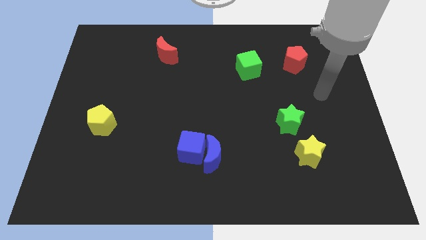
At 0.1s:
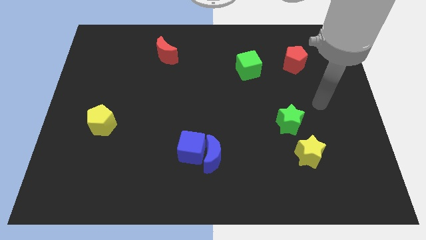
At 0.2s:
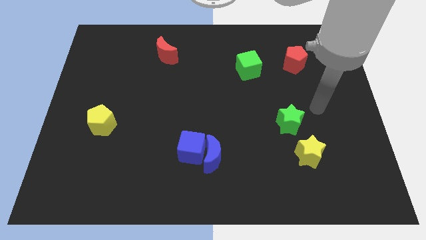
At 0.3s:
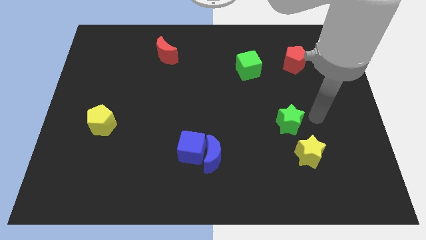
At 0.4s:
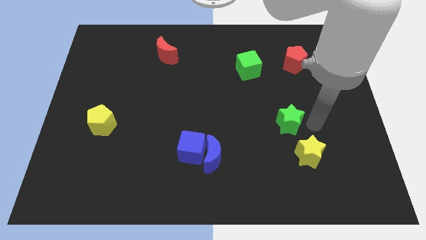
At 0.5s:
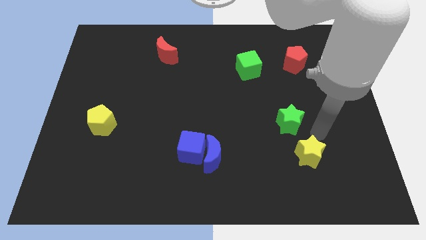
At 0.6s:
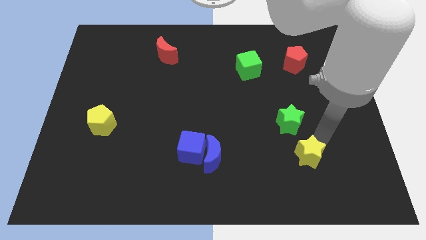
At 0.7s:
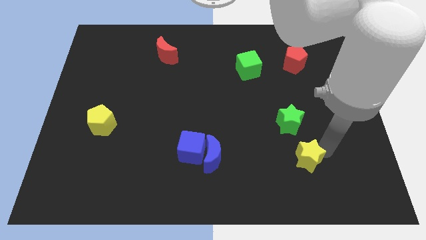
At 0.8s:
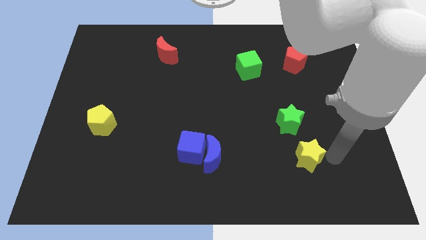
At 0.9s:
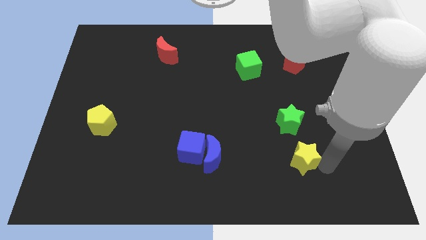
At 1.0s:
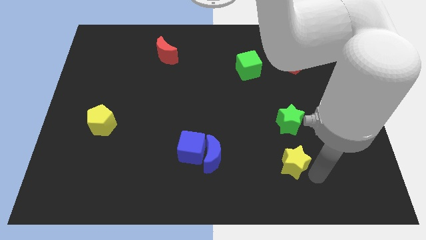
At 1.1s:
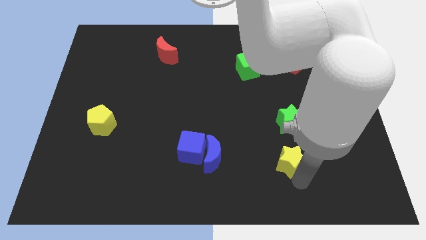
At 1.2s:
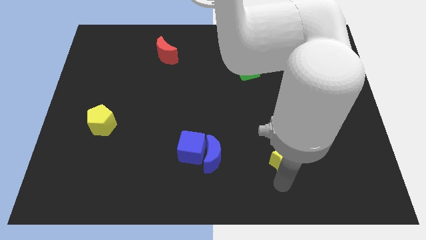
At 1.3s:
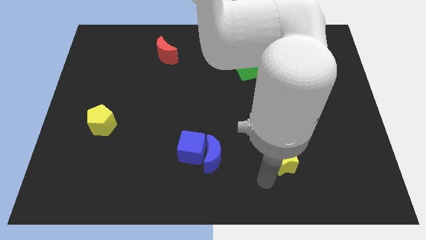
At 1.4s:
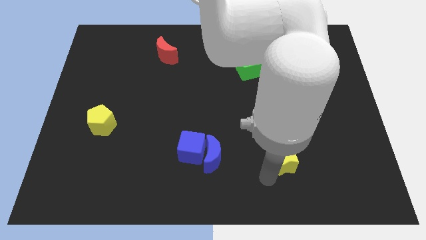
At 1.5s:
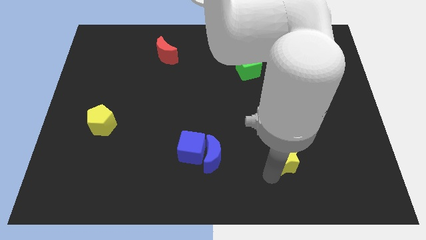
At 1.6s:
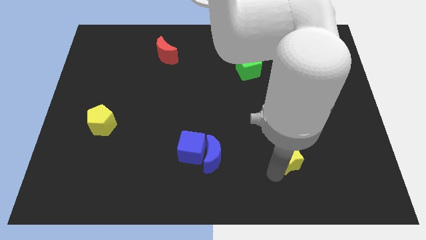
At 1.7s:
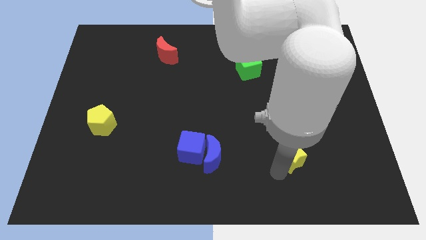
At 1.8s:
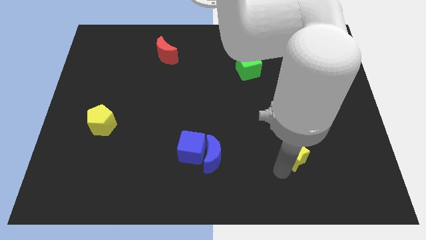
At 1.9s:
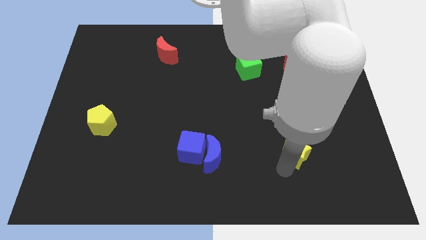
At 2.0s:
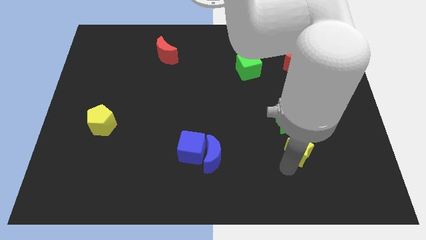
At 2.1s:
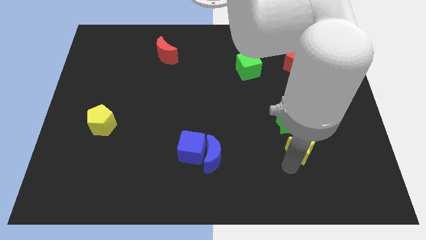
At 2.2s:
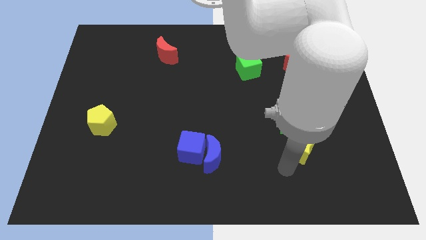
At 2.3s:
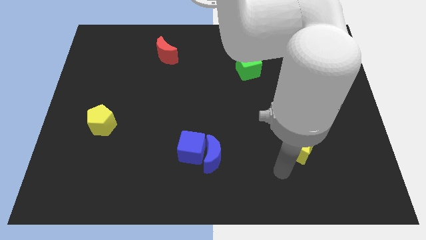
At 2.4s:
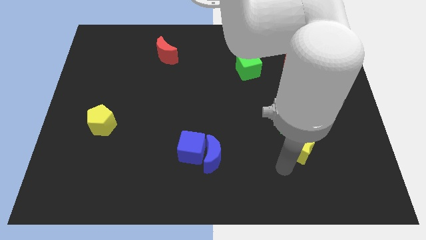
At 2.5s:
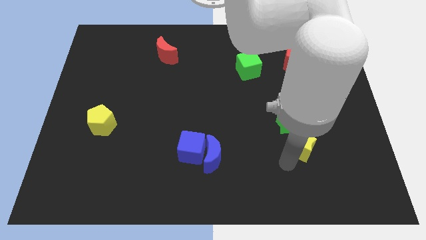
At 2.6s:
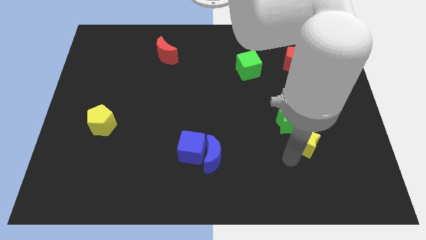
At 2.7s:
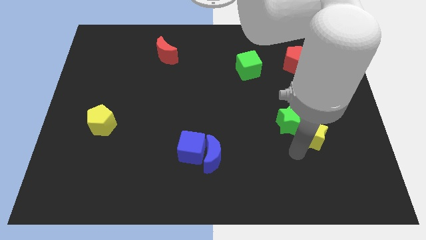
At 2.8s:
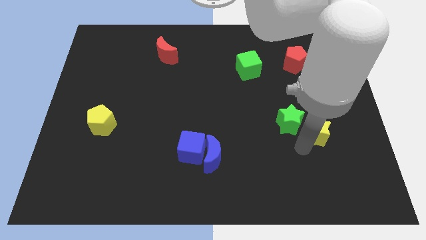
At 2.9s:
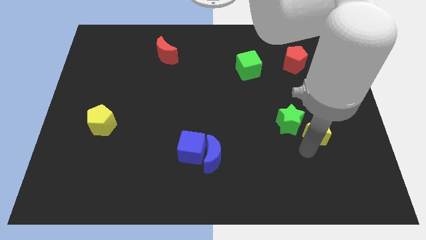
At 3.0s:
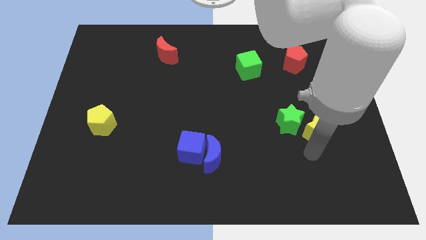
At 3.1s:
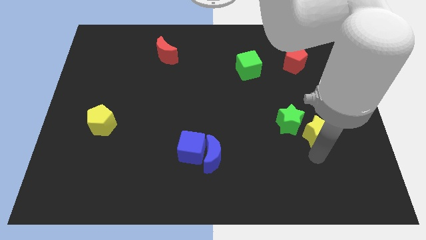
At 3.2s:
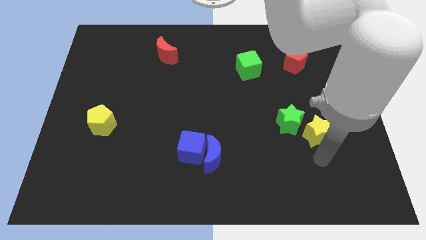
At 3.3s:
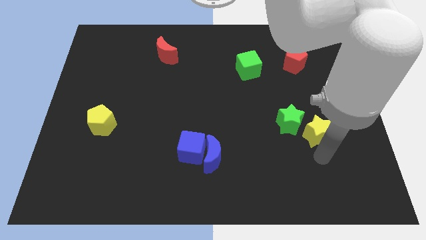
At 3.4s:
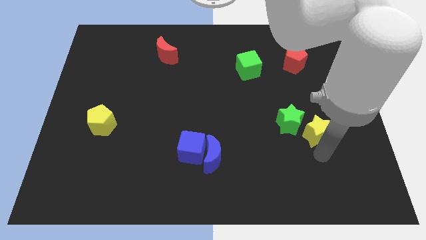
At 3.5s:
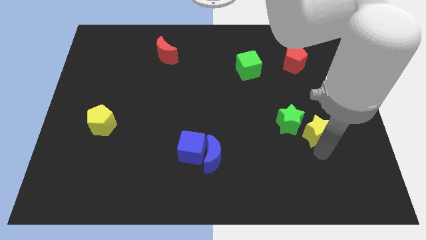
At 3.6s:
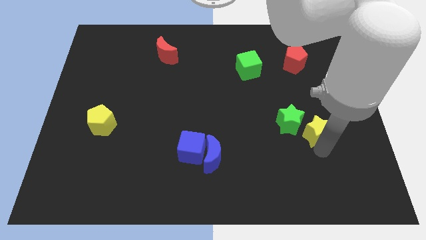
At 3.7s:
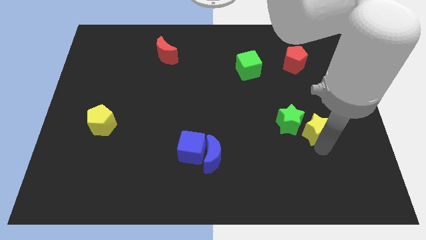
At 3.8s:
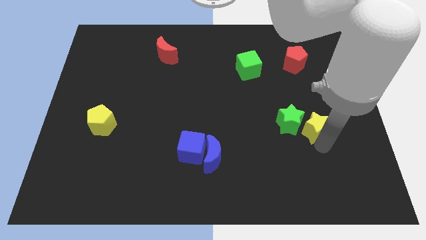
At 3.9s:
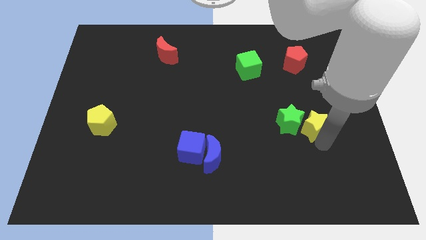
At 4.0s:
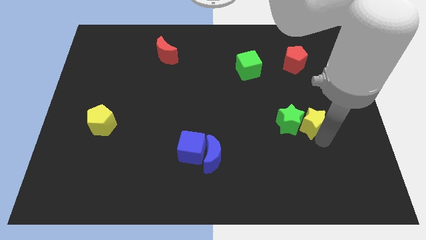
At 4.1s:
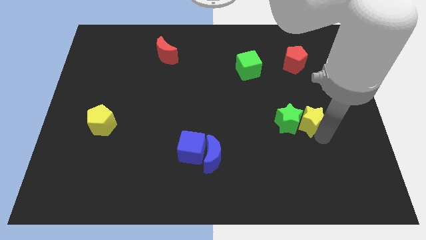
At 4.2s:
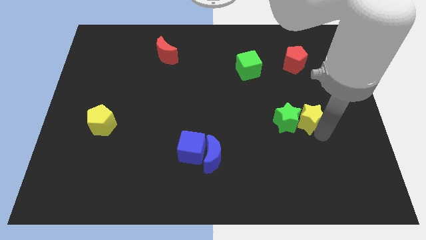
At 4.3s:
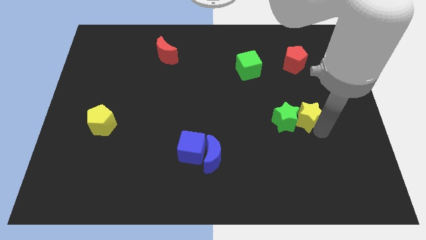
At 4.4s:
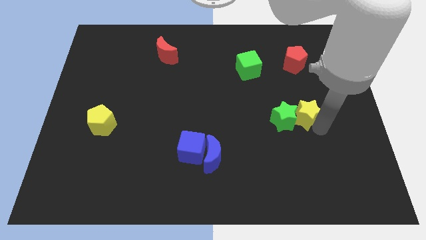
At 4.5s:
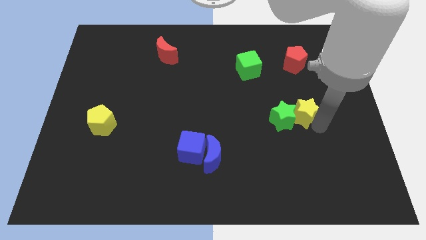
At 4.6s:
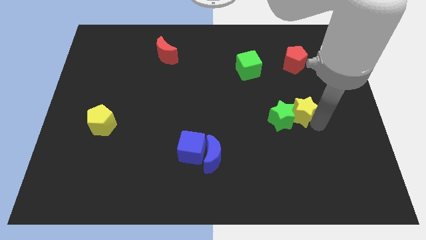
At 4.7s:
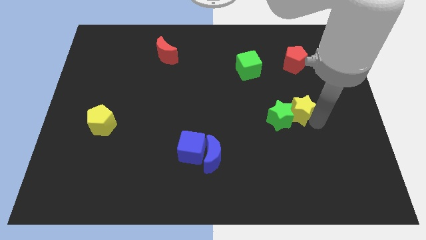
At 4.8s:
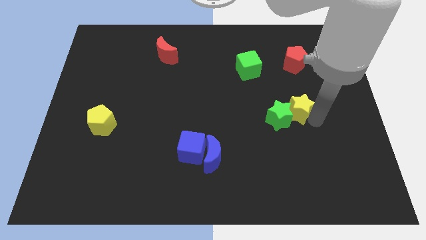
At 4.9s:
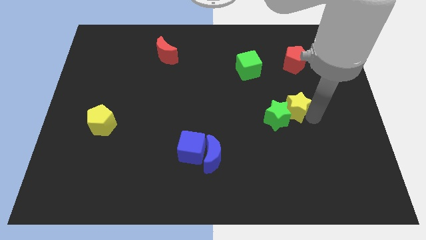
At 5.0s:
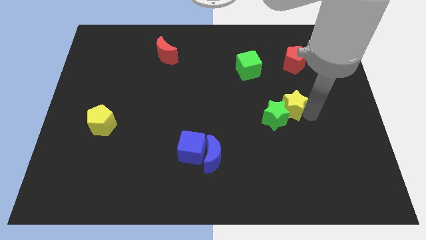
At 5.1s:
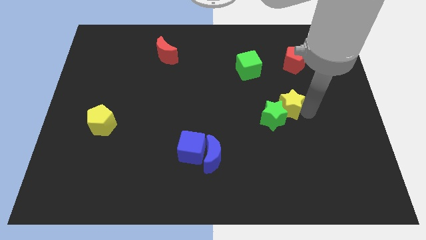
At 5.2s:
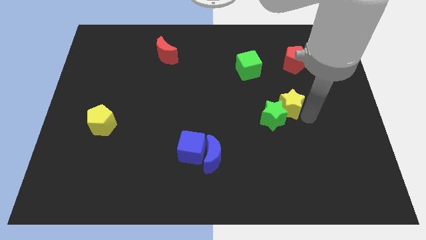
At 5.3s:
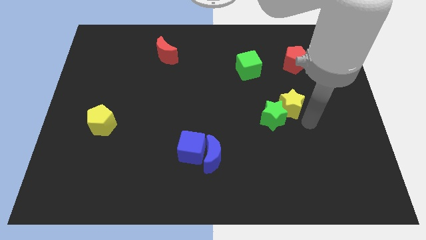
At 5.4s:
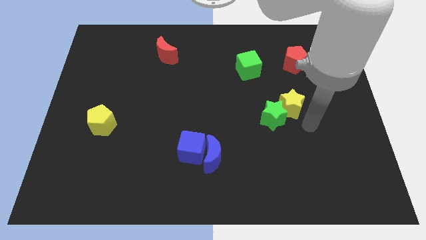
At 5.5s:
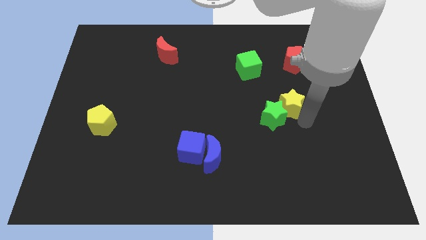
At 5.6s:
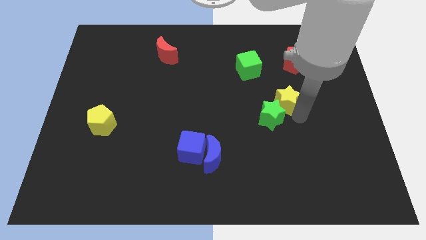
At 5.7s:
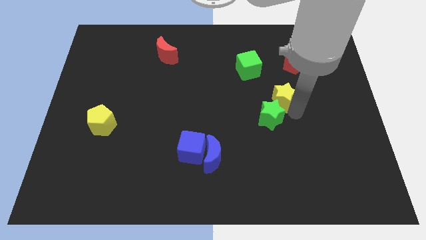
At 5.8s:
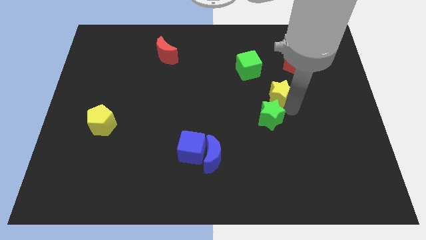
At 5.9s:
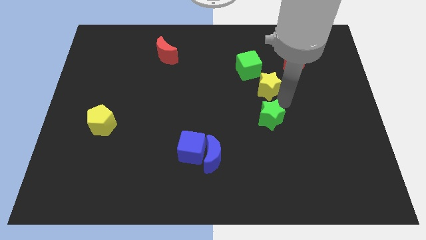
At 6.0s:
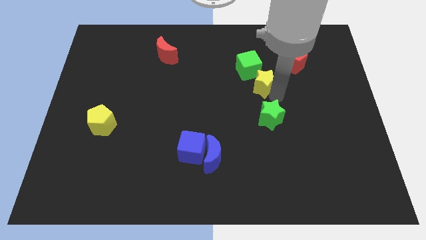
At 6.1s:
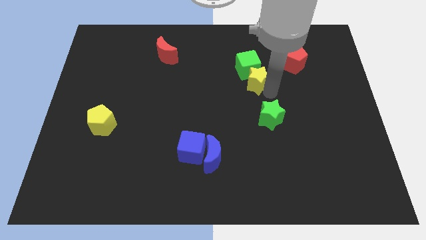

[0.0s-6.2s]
move the yellow star towards the green cube

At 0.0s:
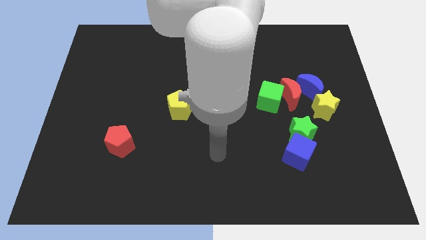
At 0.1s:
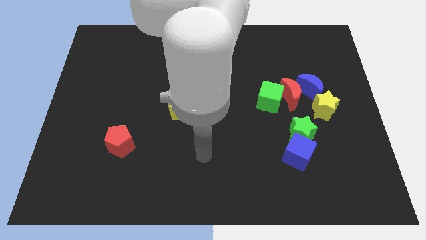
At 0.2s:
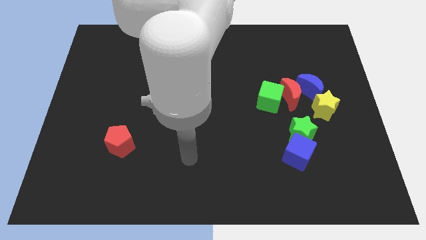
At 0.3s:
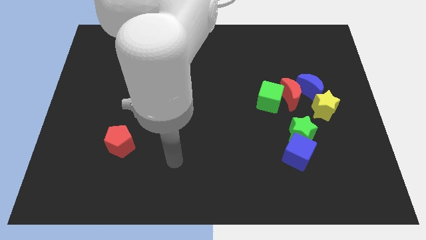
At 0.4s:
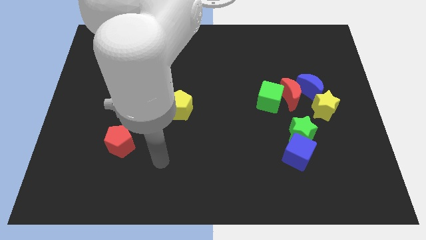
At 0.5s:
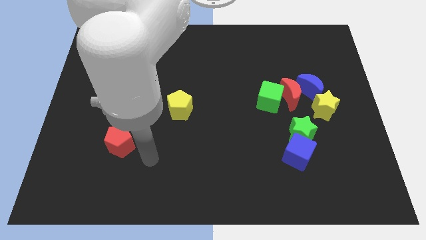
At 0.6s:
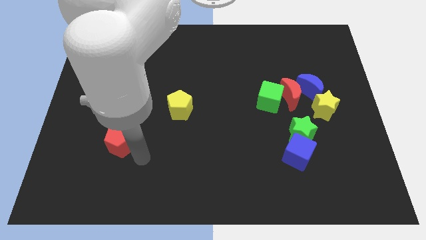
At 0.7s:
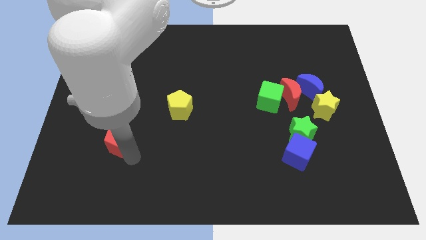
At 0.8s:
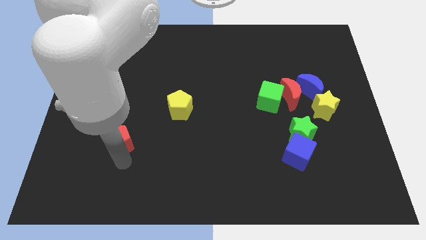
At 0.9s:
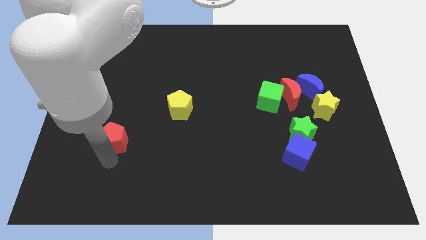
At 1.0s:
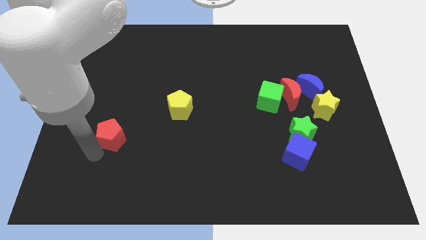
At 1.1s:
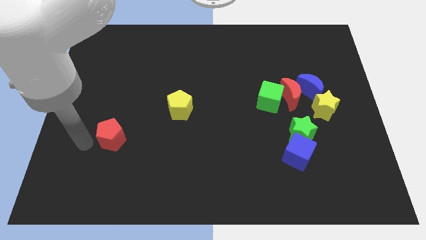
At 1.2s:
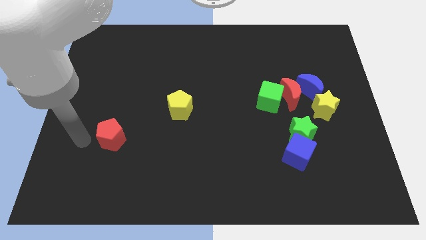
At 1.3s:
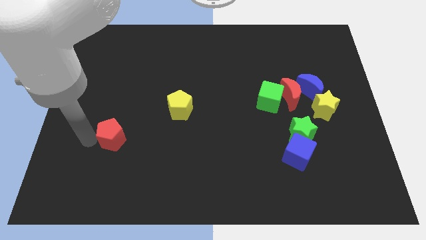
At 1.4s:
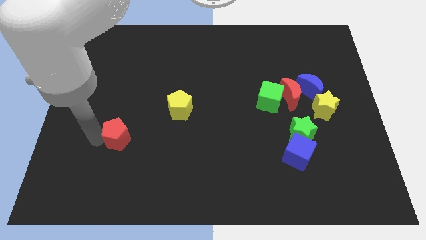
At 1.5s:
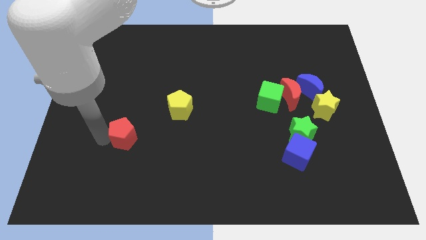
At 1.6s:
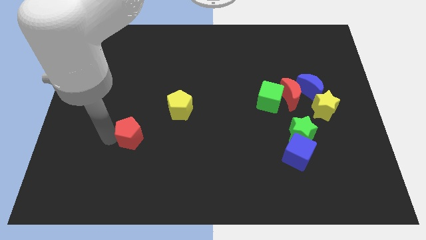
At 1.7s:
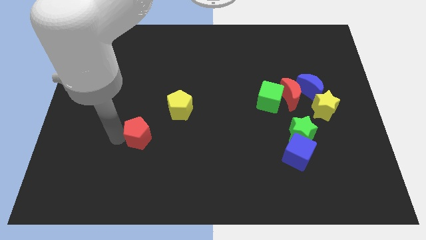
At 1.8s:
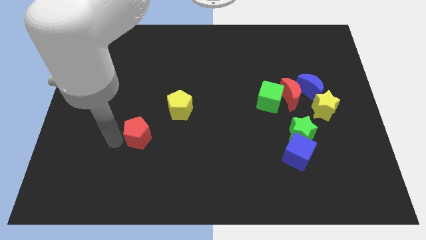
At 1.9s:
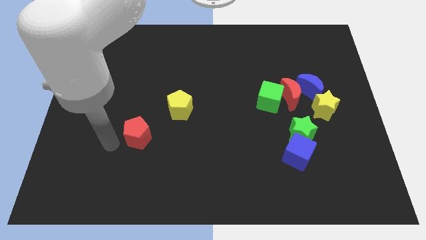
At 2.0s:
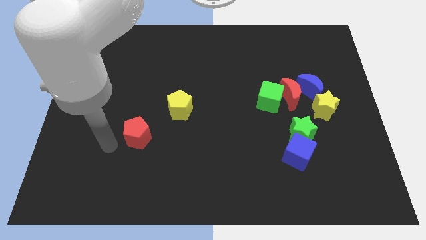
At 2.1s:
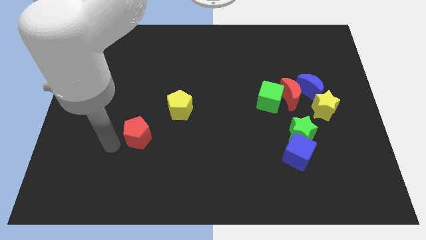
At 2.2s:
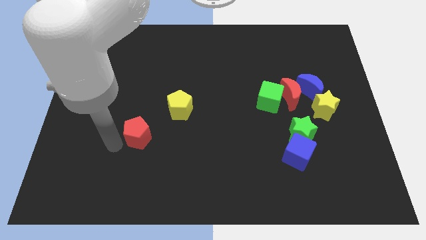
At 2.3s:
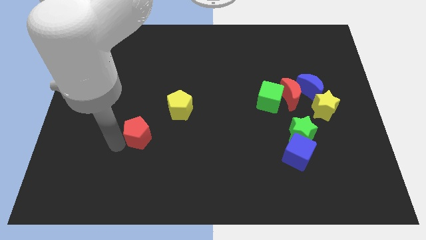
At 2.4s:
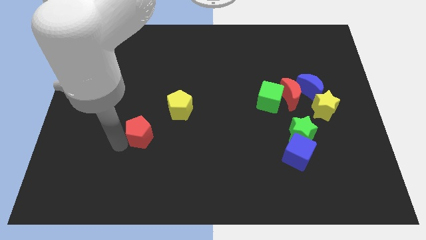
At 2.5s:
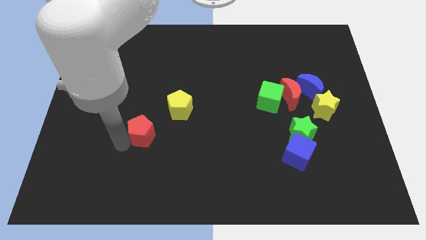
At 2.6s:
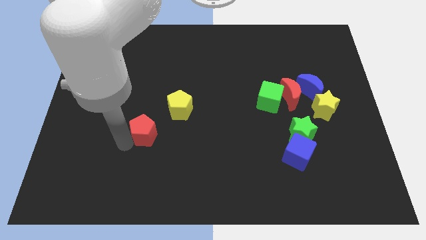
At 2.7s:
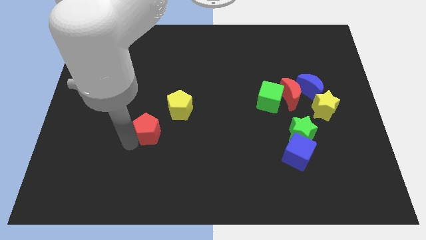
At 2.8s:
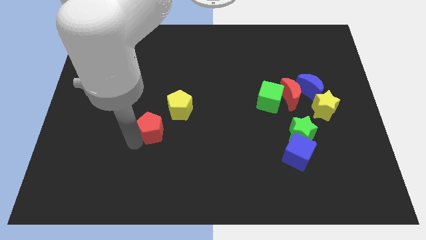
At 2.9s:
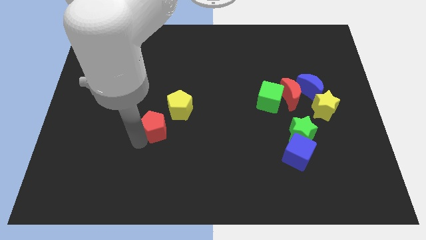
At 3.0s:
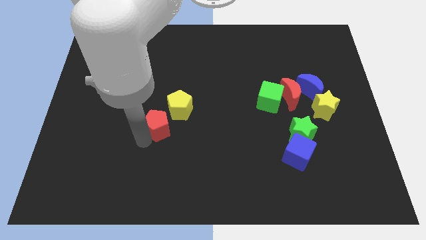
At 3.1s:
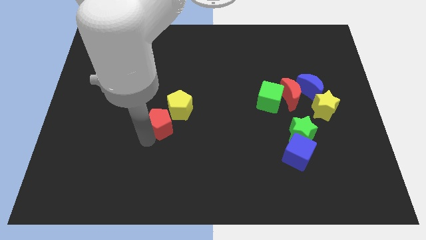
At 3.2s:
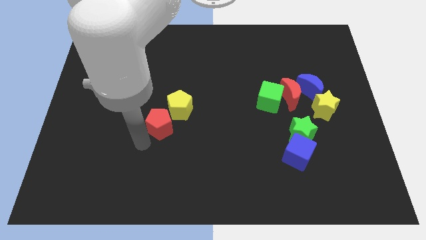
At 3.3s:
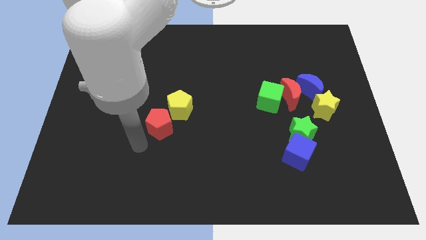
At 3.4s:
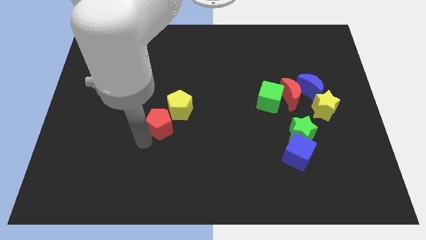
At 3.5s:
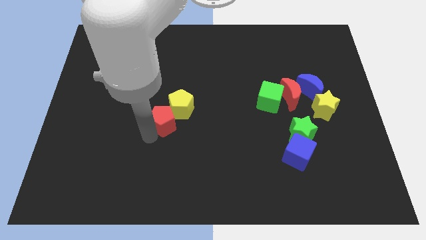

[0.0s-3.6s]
slide the red pentagon to the yellow pentagon
